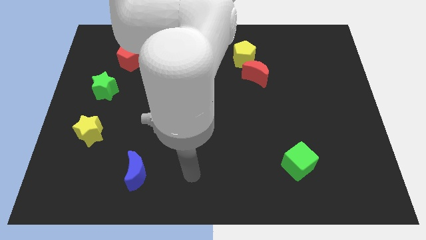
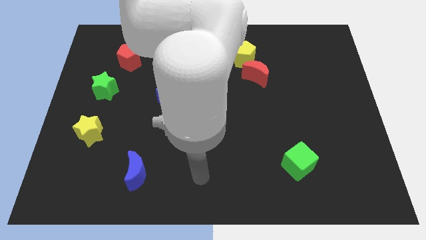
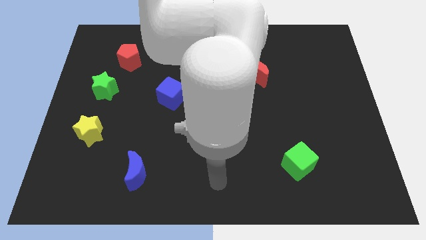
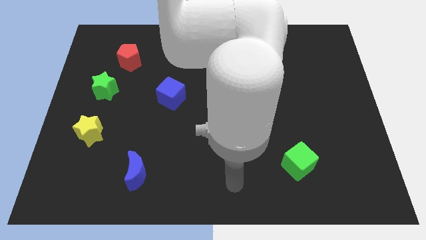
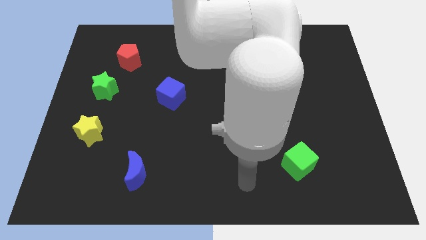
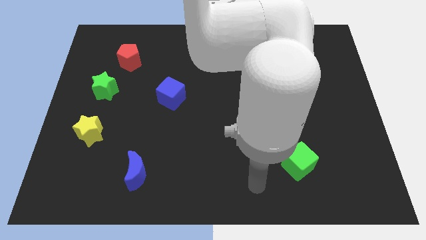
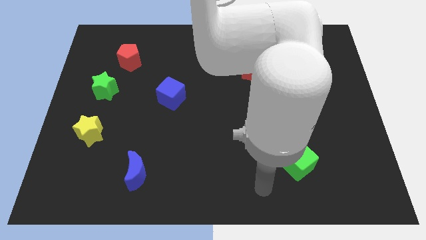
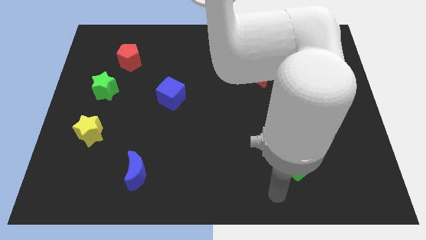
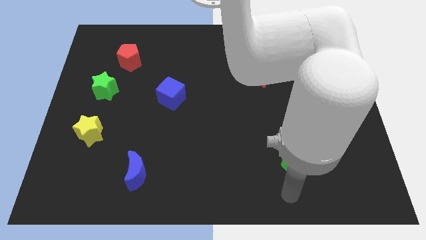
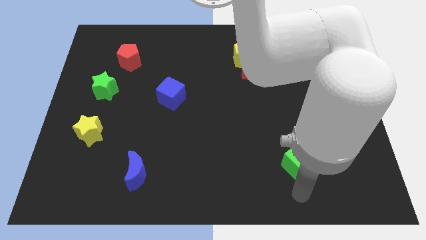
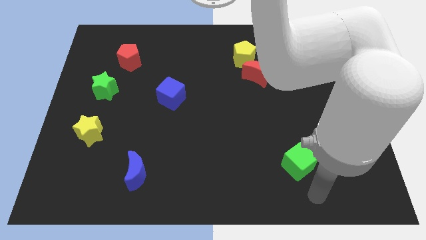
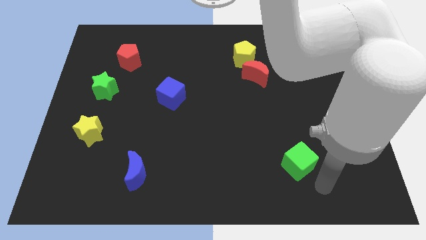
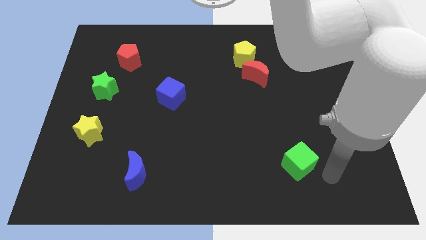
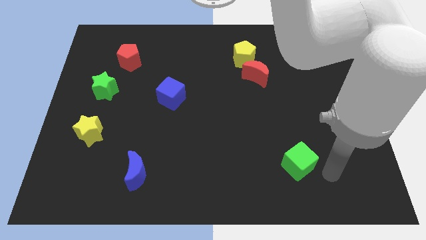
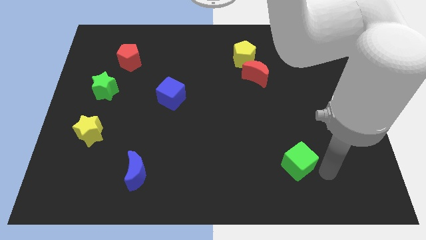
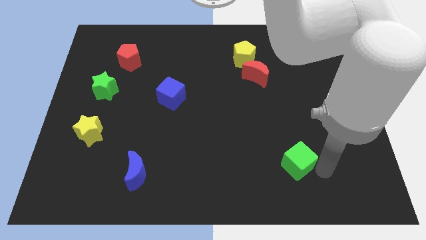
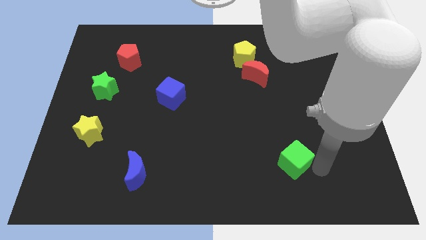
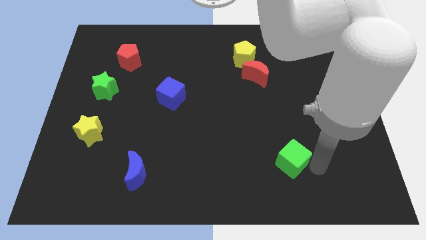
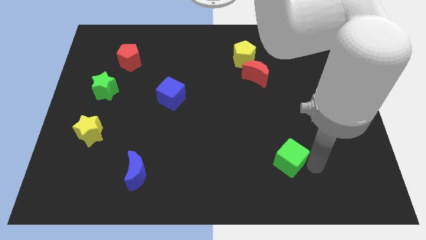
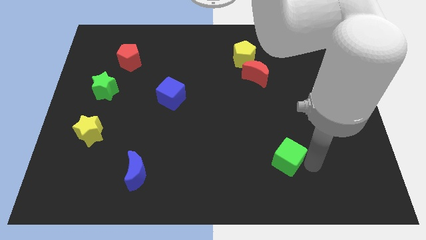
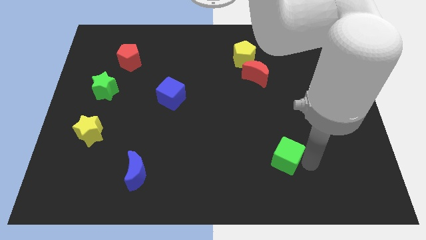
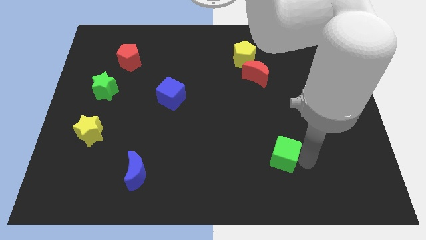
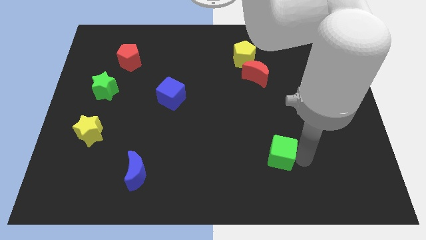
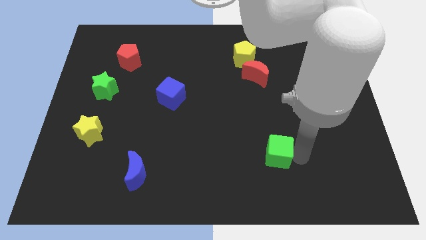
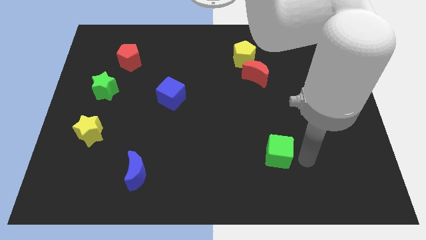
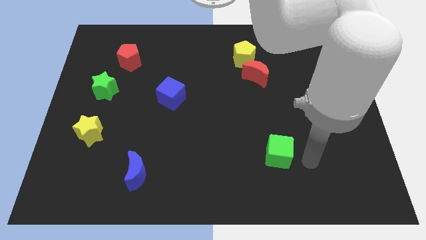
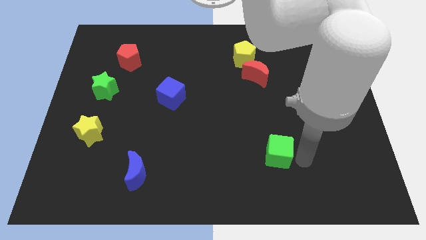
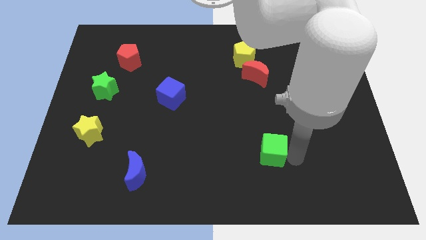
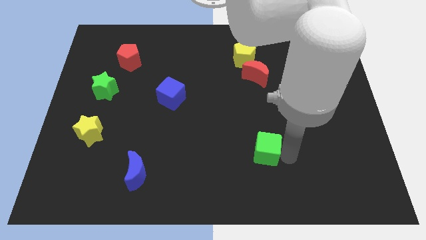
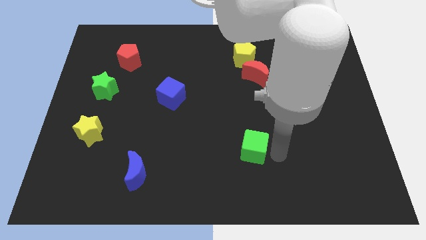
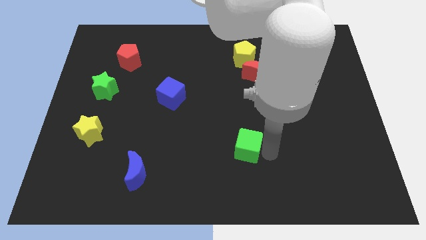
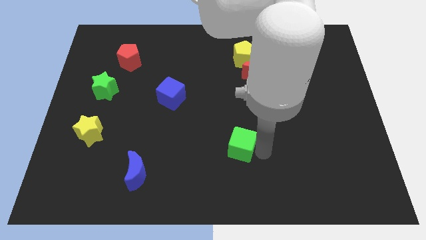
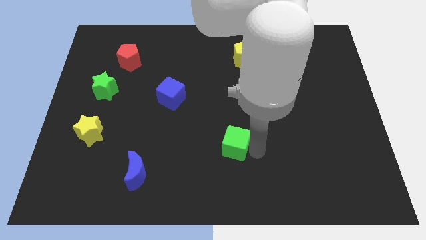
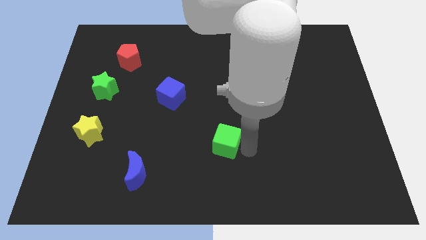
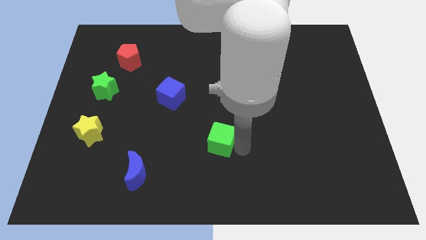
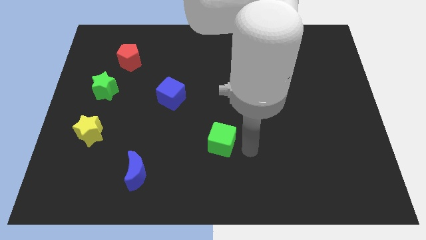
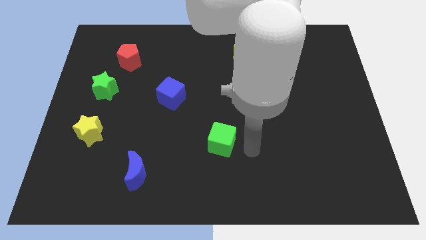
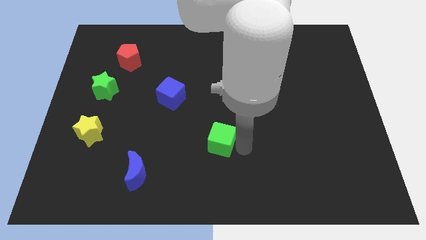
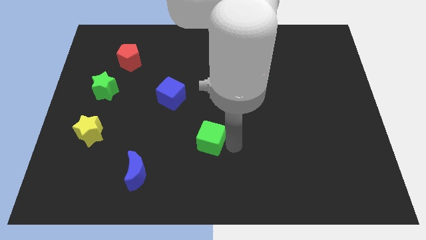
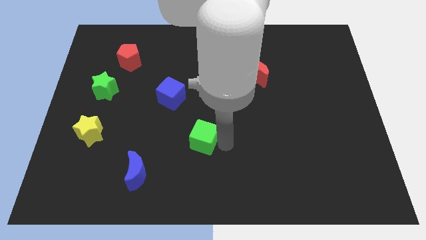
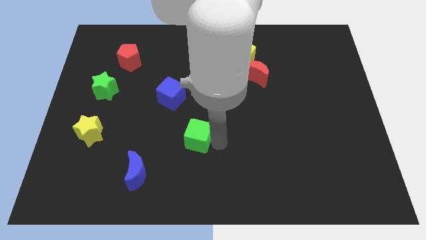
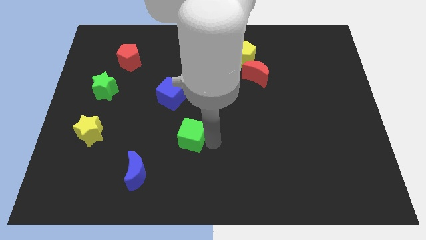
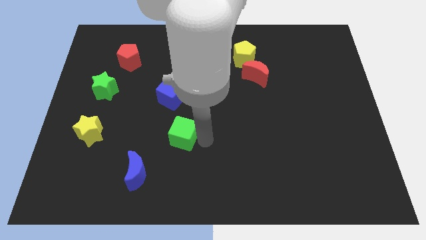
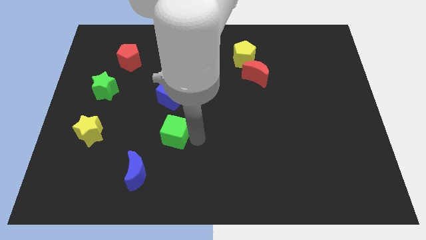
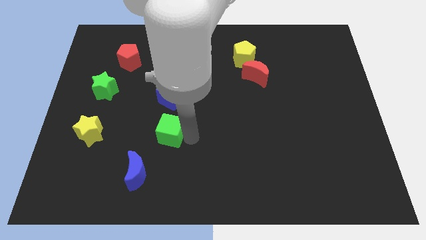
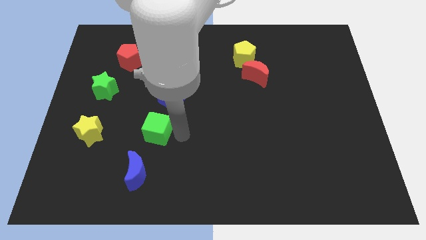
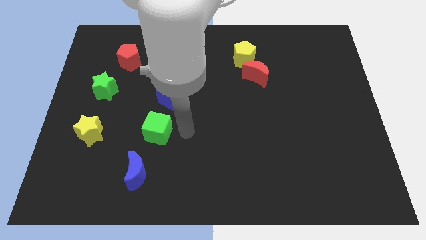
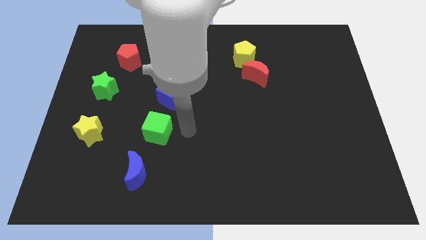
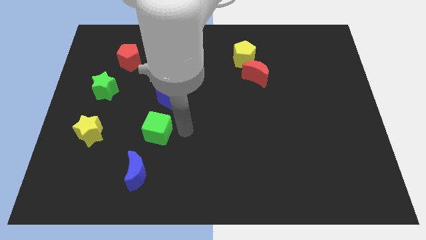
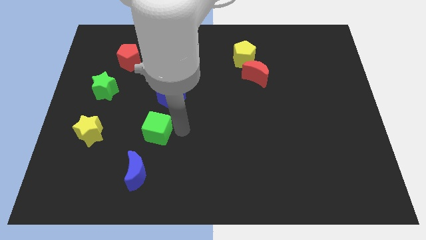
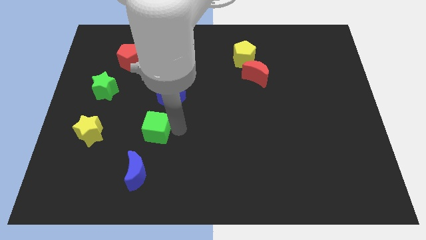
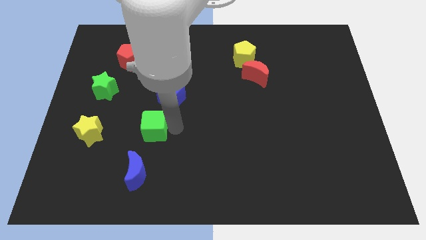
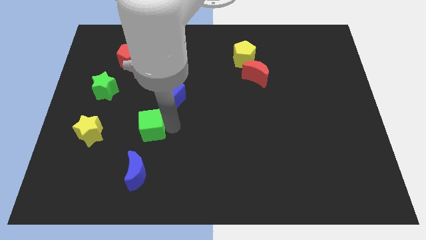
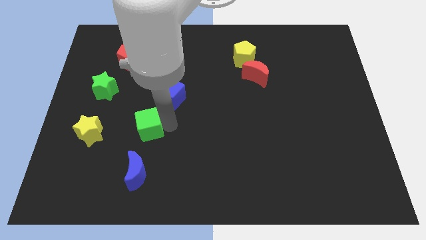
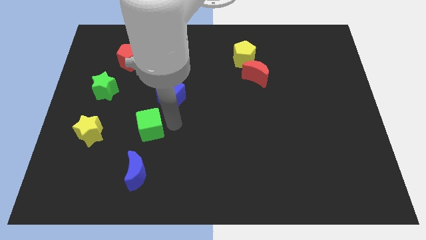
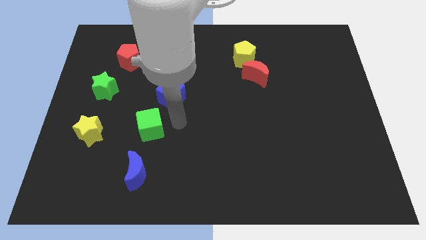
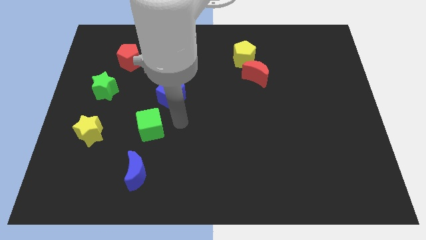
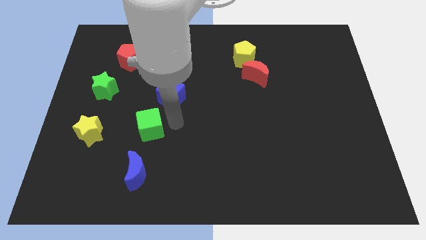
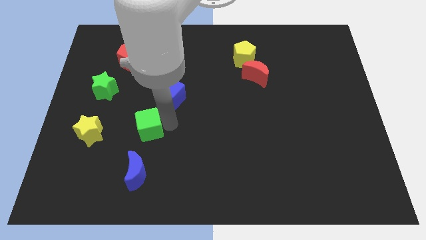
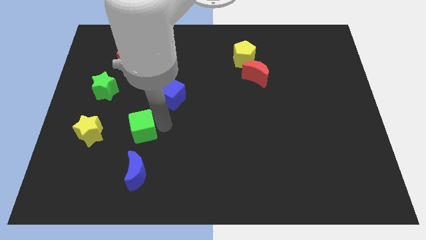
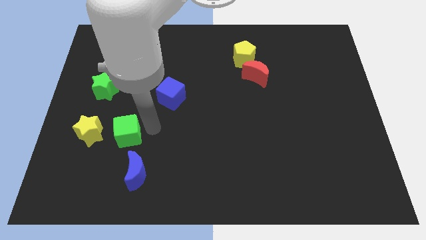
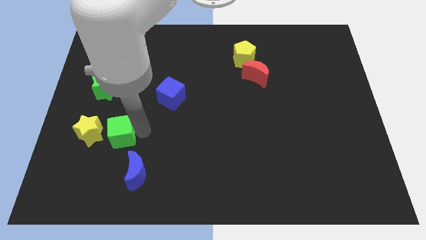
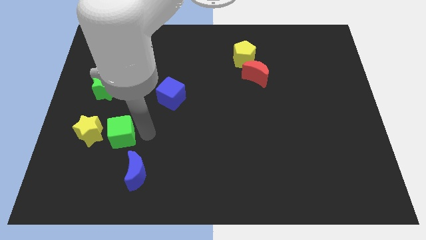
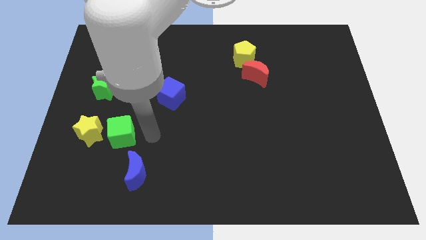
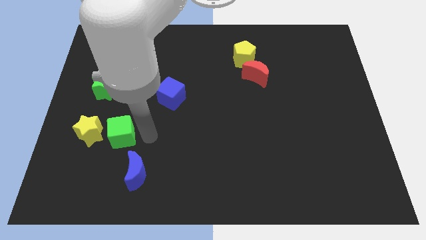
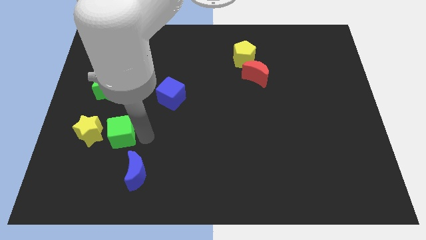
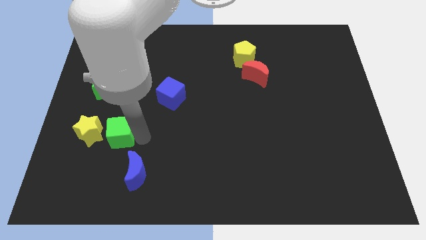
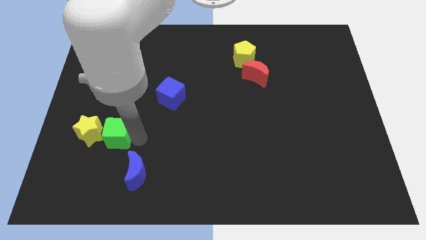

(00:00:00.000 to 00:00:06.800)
push the green cube towards the yellow star

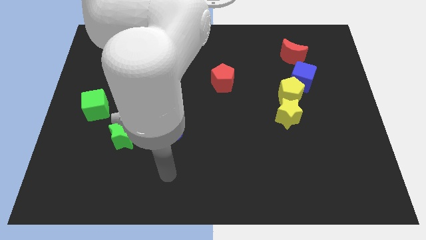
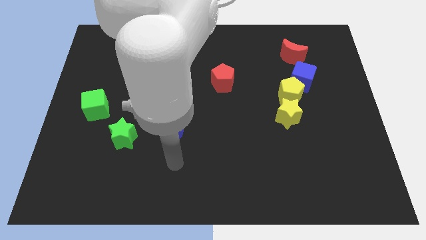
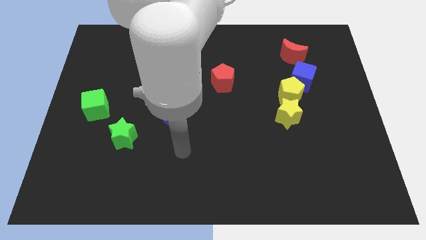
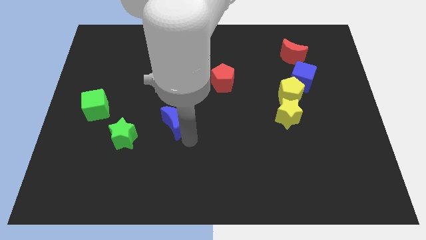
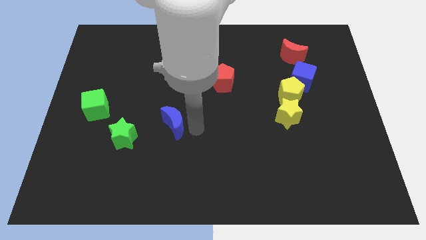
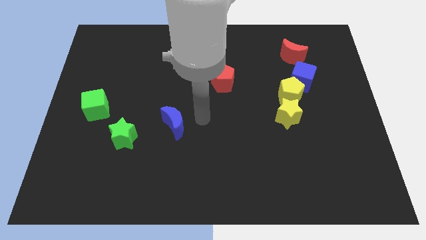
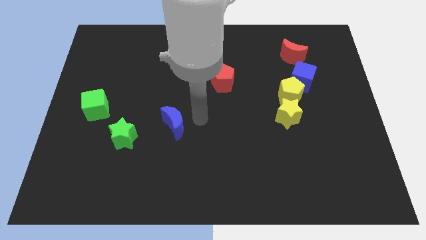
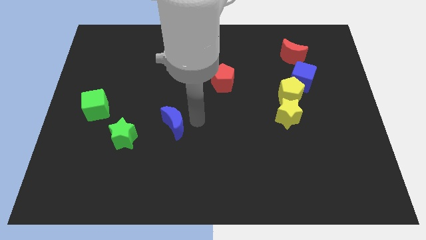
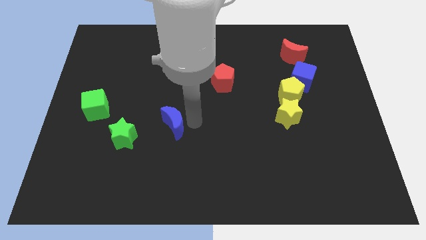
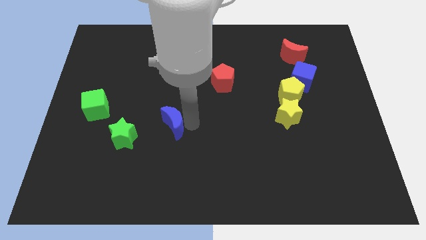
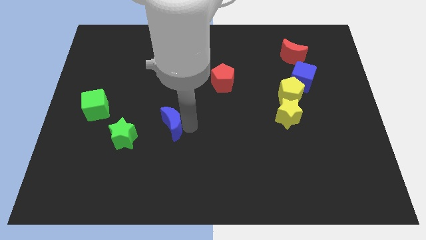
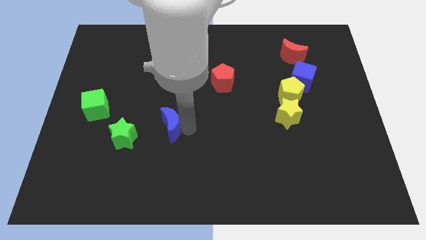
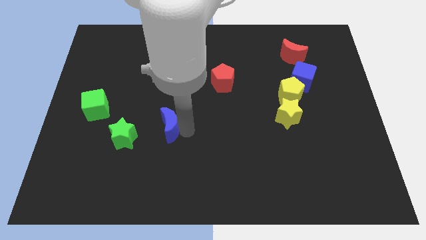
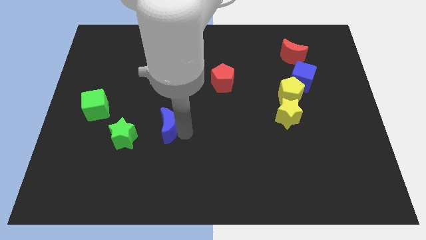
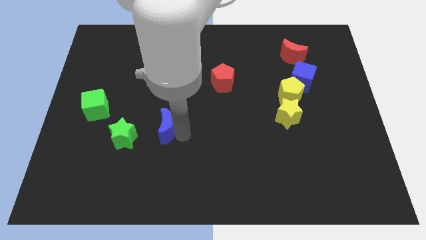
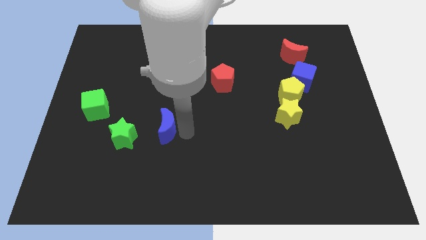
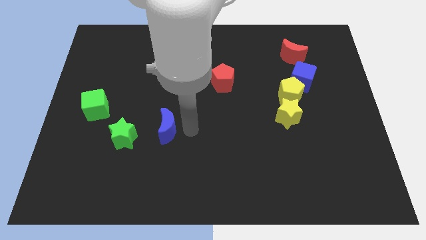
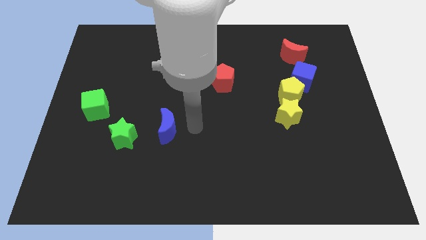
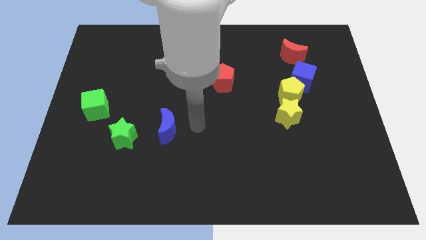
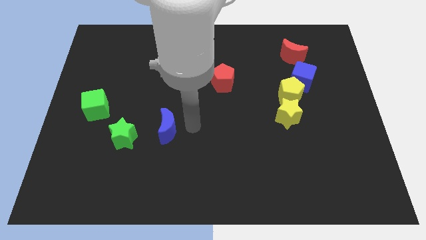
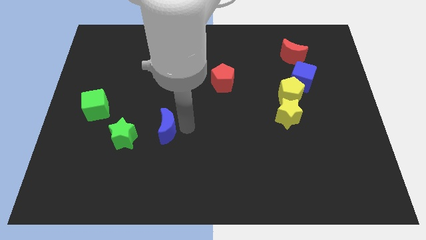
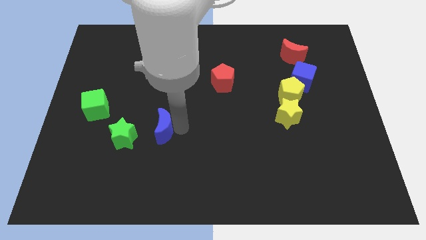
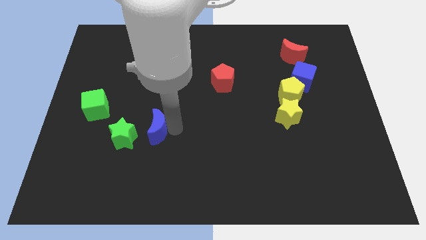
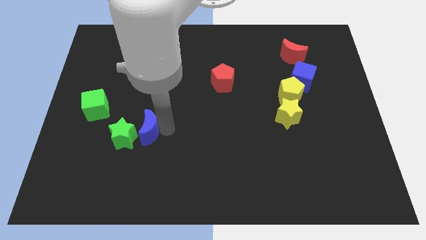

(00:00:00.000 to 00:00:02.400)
put the blue moon towards the green star
